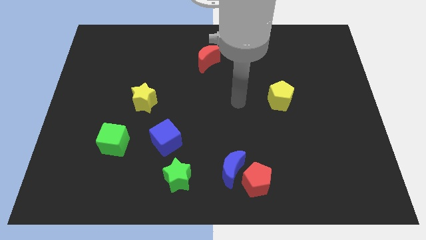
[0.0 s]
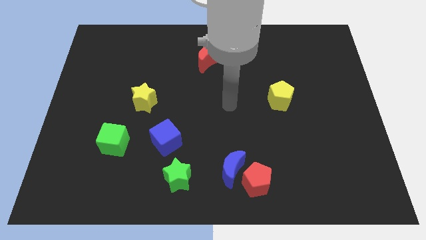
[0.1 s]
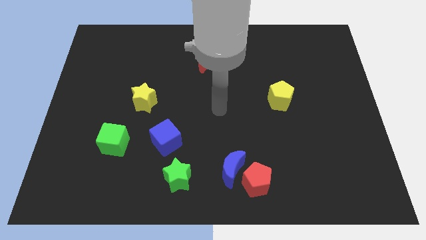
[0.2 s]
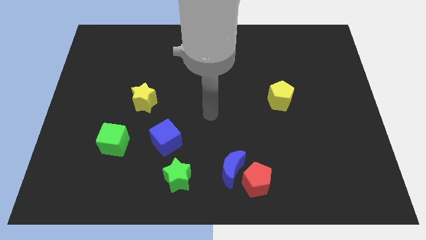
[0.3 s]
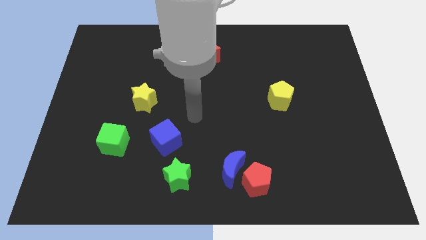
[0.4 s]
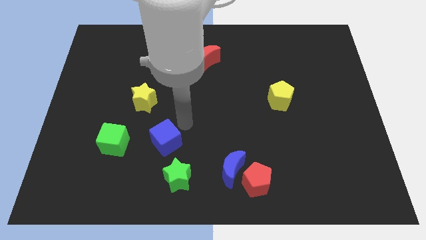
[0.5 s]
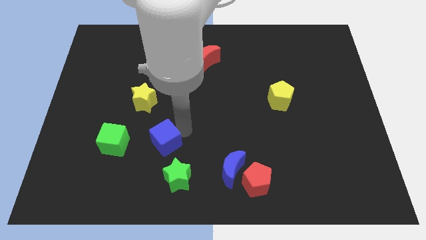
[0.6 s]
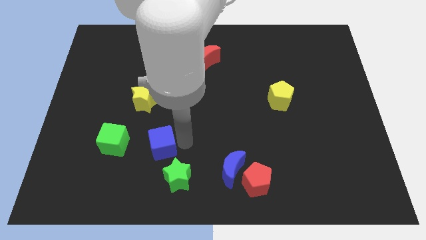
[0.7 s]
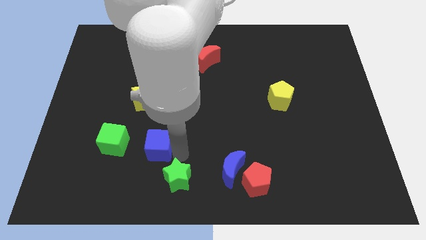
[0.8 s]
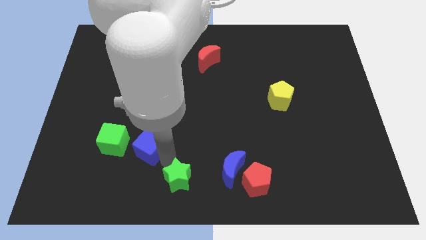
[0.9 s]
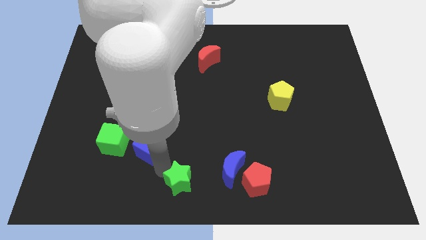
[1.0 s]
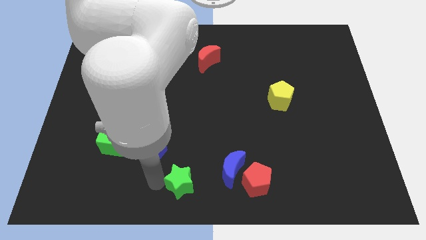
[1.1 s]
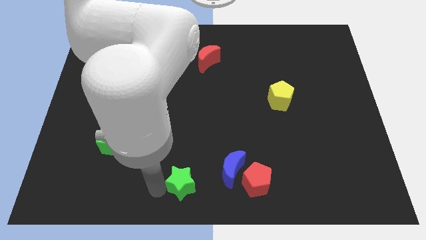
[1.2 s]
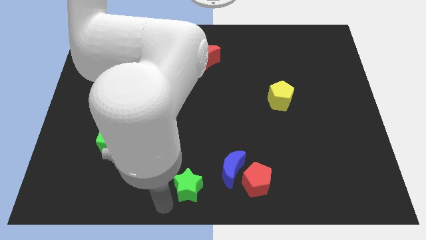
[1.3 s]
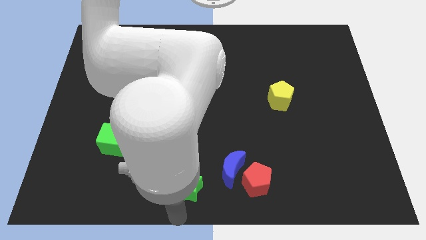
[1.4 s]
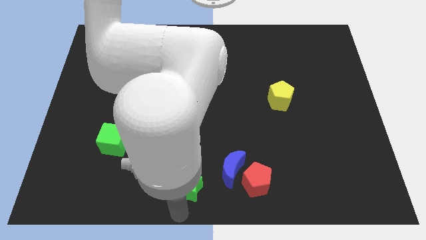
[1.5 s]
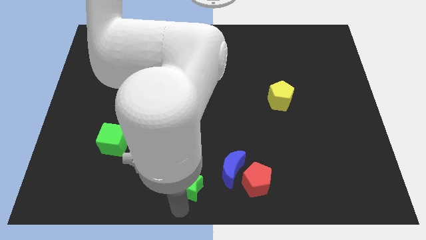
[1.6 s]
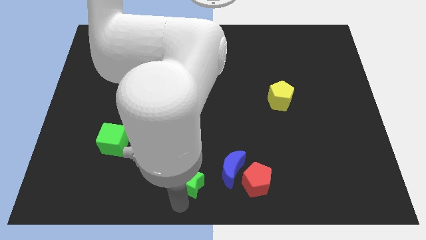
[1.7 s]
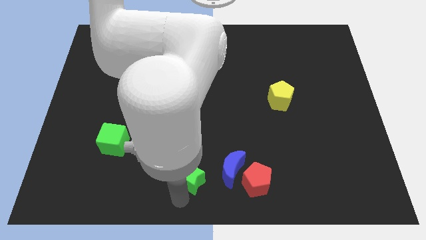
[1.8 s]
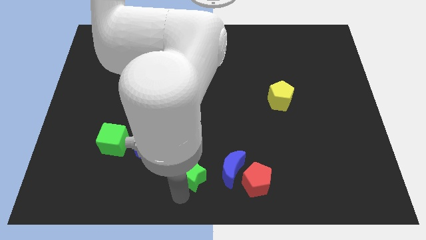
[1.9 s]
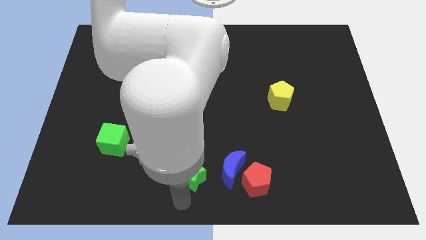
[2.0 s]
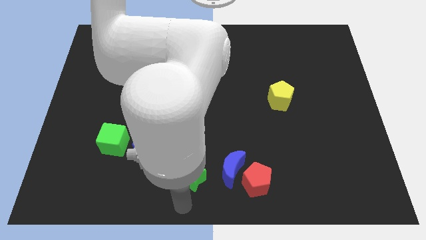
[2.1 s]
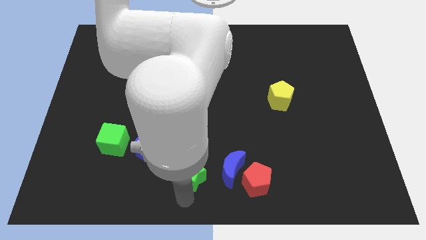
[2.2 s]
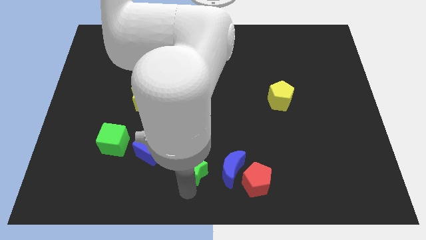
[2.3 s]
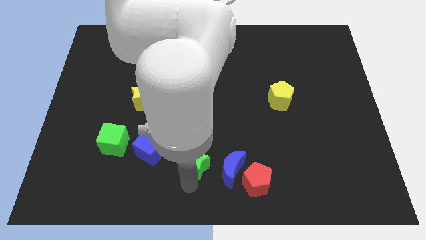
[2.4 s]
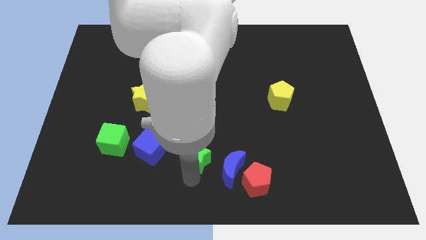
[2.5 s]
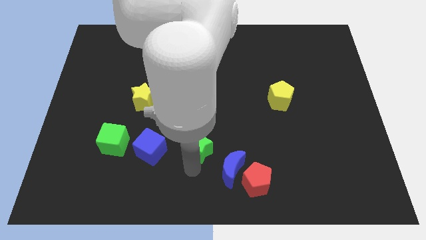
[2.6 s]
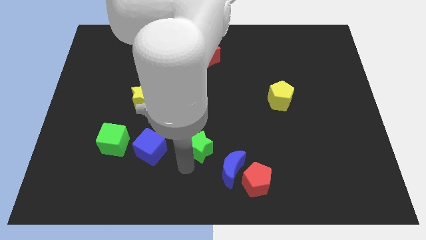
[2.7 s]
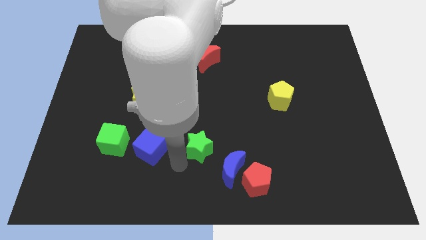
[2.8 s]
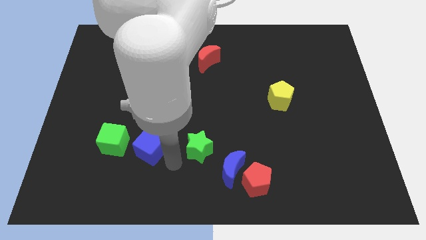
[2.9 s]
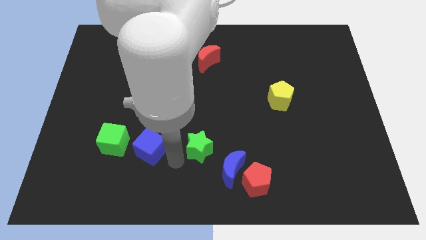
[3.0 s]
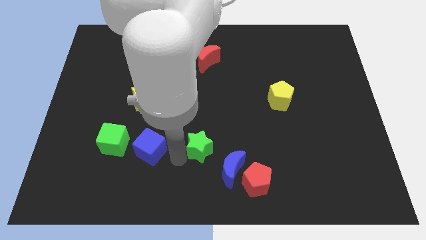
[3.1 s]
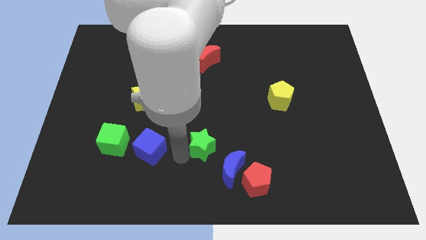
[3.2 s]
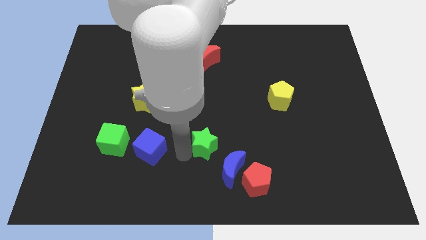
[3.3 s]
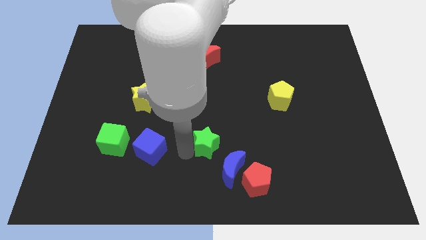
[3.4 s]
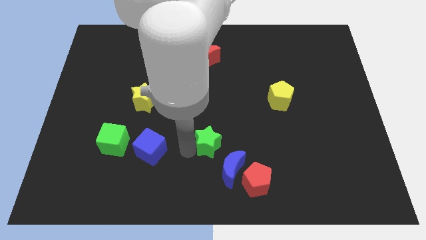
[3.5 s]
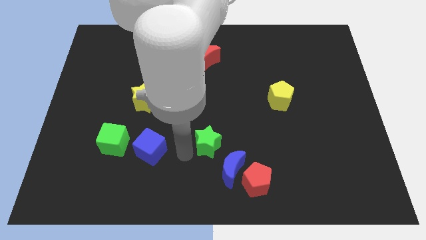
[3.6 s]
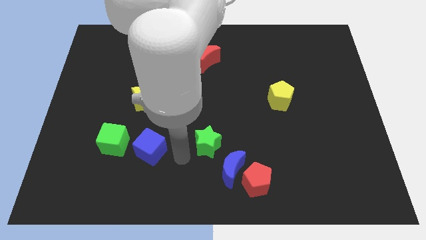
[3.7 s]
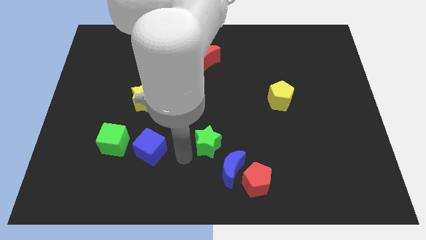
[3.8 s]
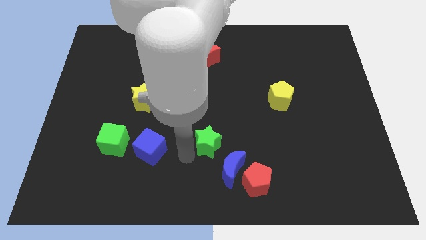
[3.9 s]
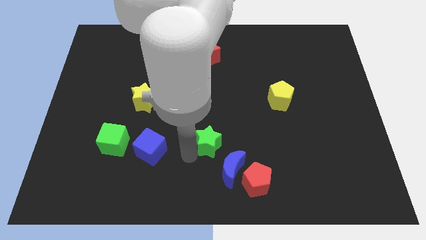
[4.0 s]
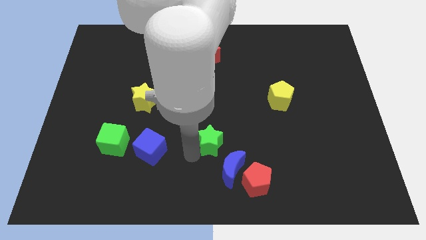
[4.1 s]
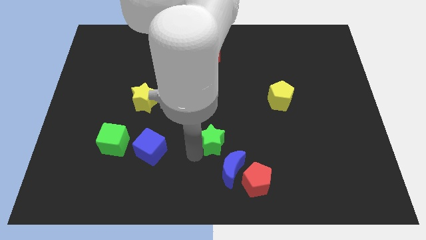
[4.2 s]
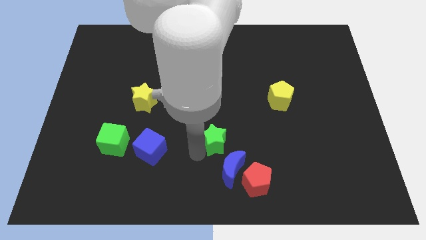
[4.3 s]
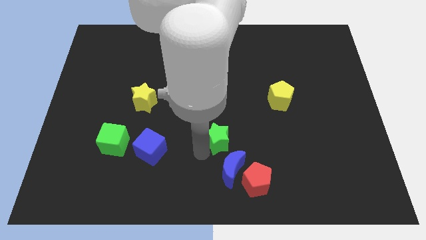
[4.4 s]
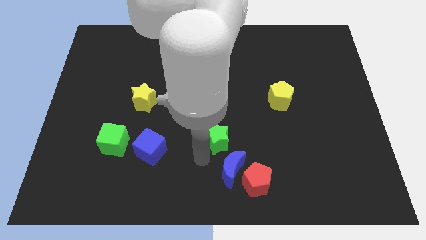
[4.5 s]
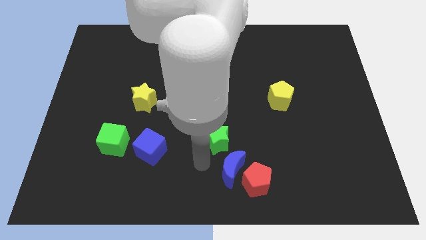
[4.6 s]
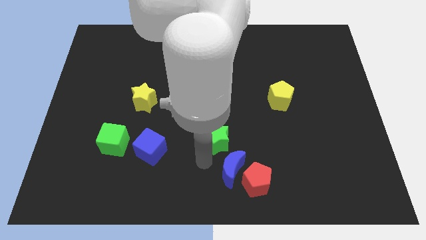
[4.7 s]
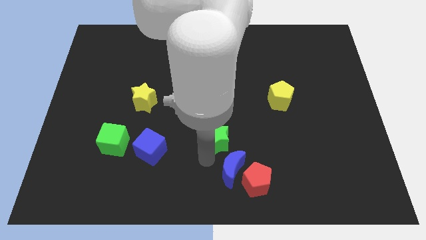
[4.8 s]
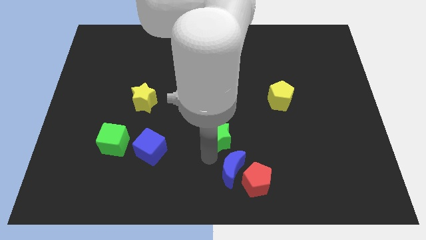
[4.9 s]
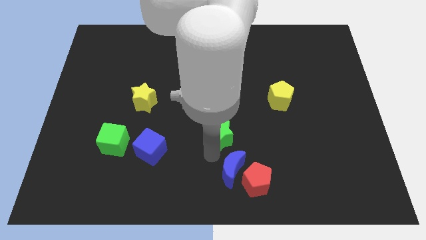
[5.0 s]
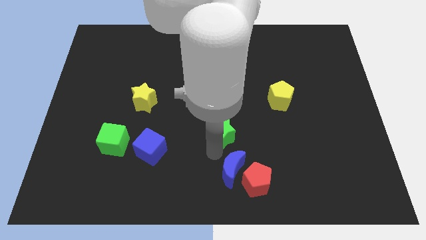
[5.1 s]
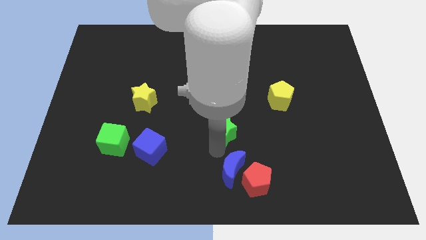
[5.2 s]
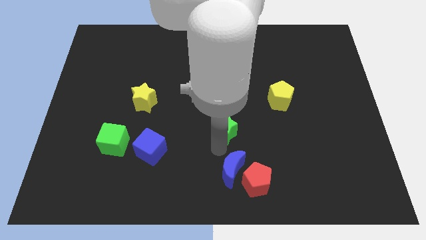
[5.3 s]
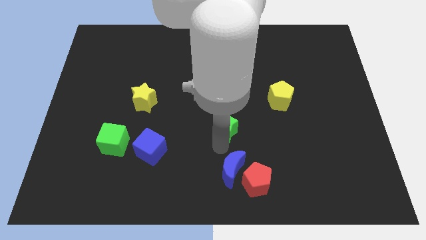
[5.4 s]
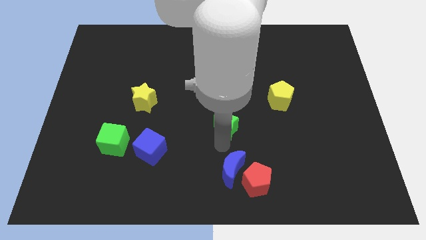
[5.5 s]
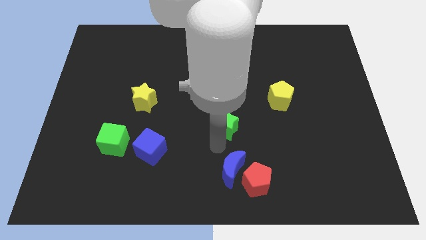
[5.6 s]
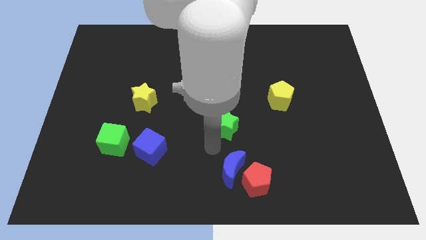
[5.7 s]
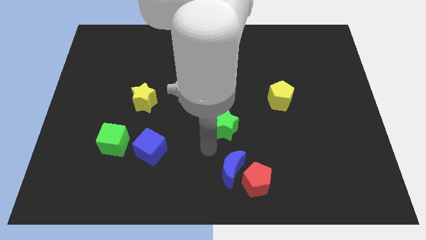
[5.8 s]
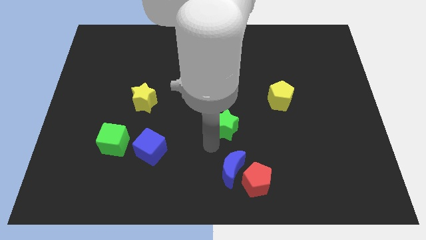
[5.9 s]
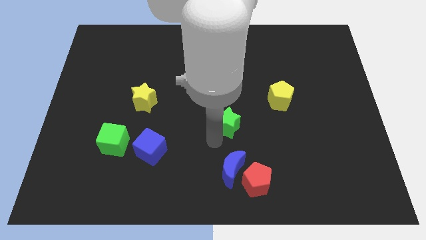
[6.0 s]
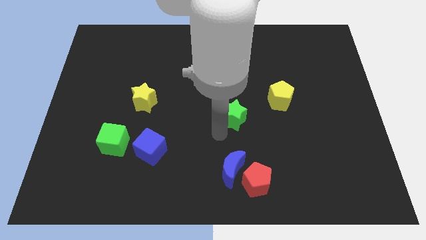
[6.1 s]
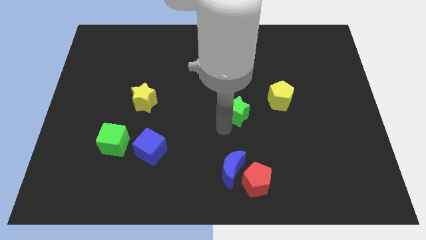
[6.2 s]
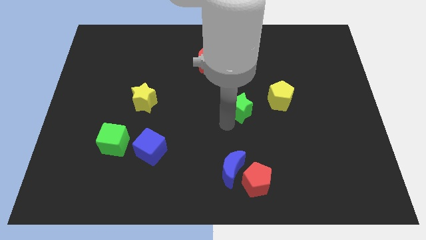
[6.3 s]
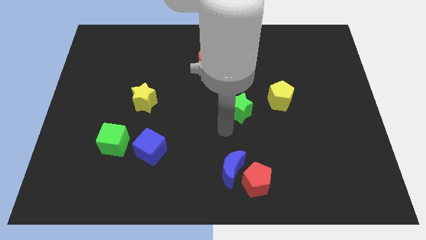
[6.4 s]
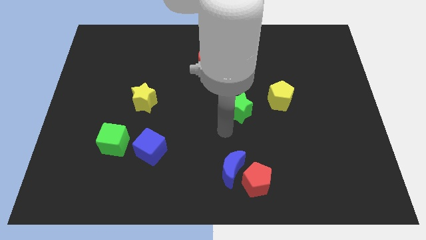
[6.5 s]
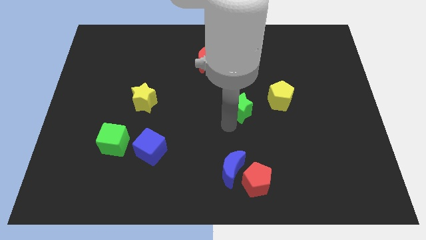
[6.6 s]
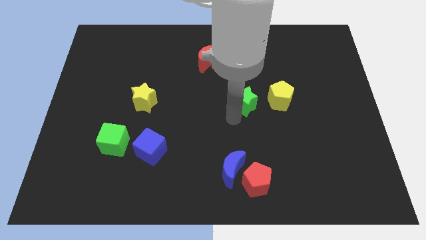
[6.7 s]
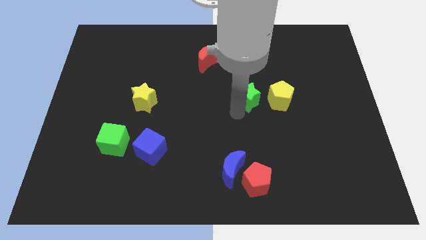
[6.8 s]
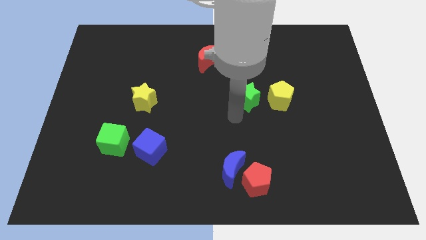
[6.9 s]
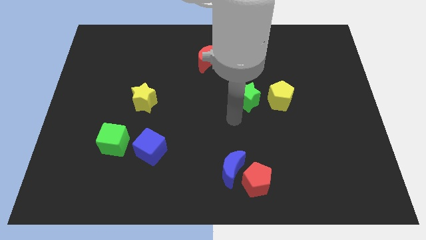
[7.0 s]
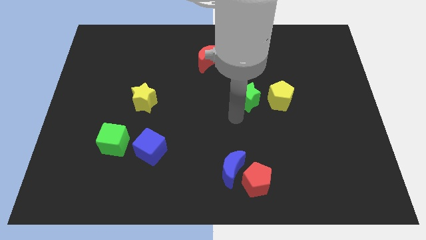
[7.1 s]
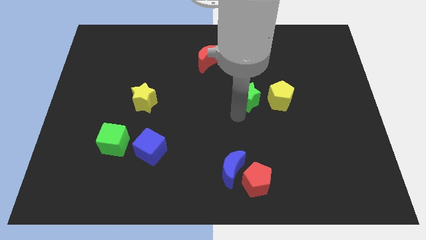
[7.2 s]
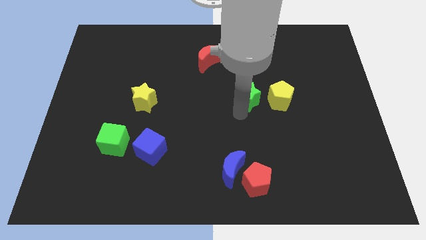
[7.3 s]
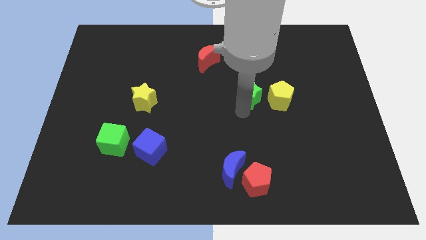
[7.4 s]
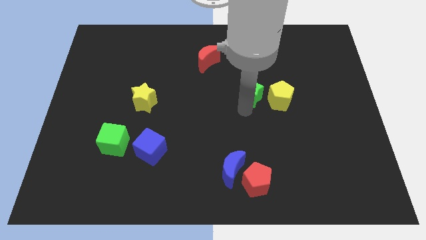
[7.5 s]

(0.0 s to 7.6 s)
put the green star diagonally up and to the left of the yellow pentagon

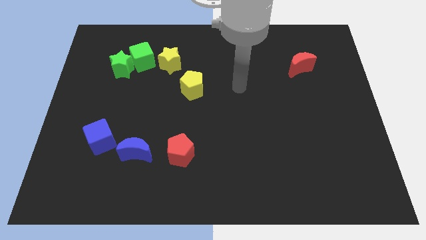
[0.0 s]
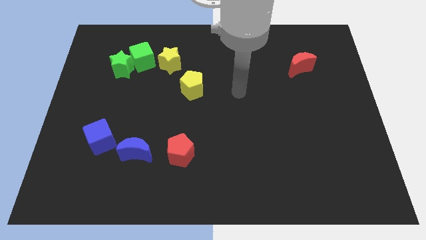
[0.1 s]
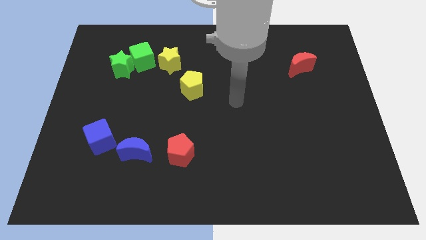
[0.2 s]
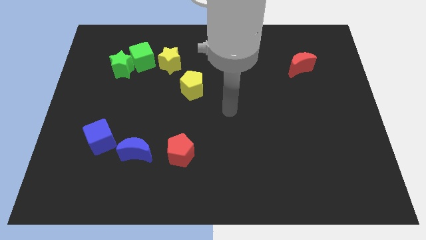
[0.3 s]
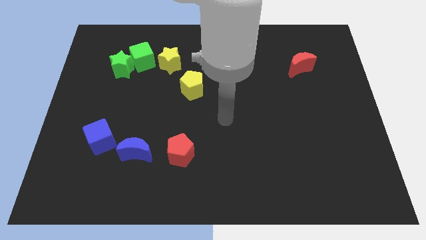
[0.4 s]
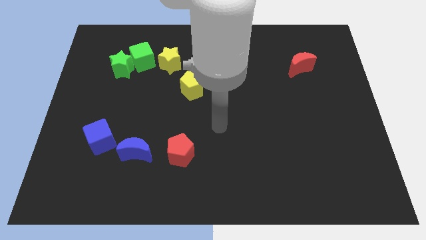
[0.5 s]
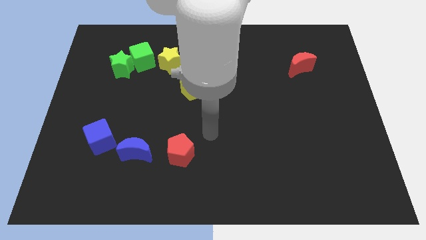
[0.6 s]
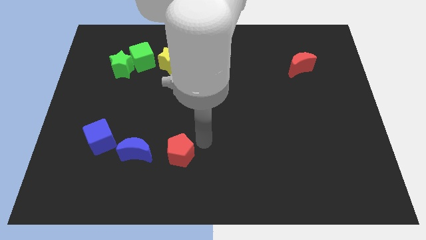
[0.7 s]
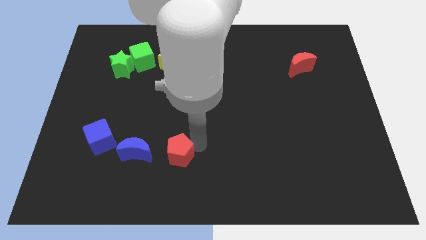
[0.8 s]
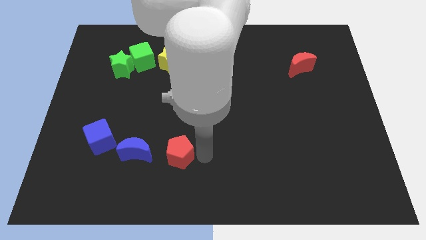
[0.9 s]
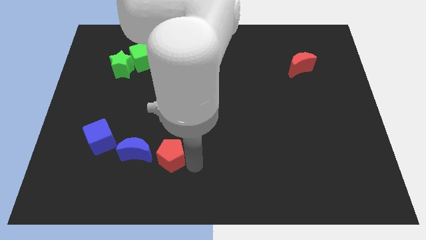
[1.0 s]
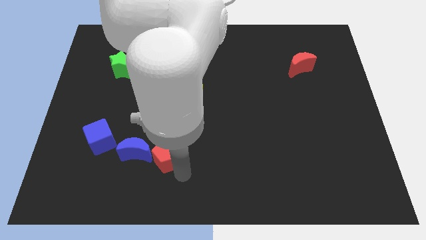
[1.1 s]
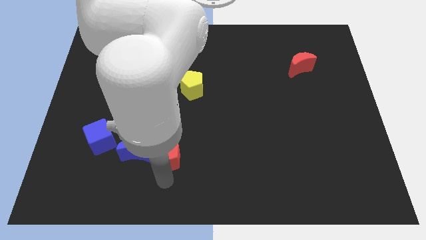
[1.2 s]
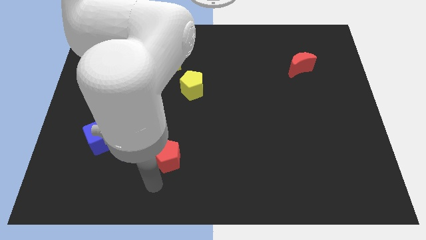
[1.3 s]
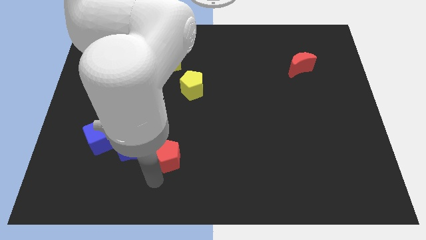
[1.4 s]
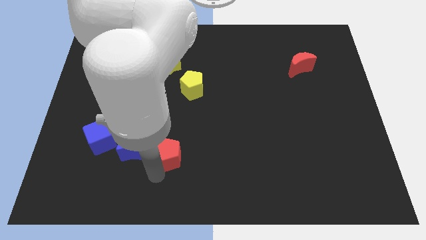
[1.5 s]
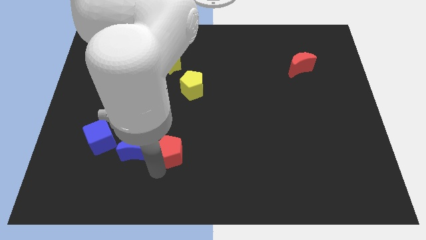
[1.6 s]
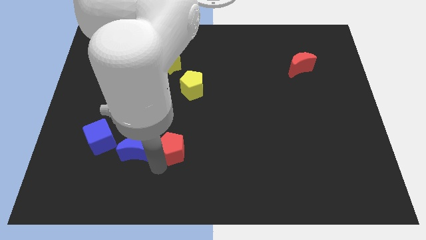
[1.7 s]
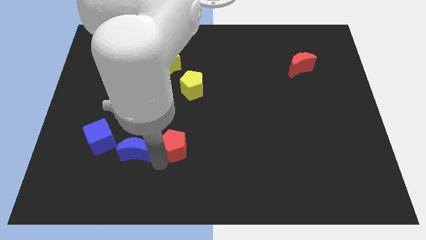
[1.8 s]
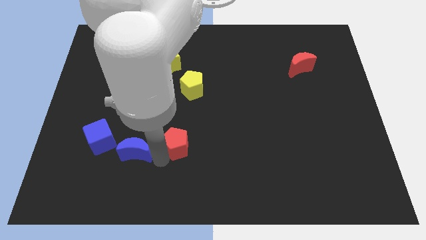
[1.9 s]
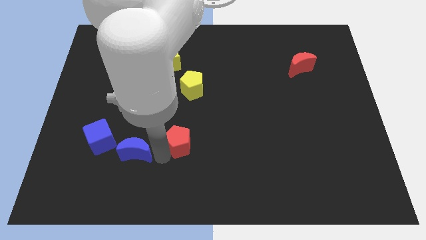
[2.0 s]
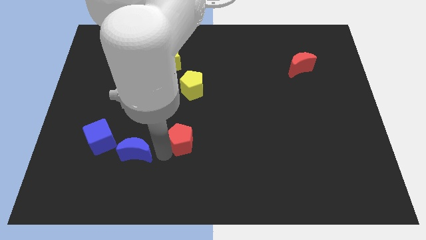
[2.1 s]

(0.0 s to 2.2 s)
push the red pentagon below the yellow pentagon
